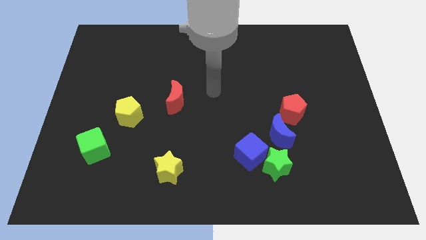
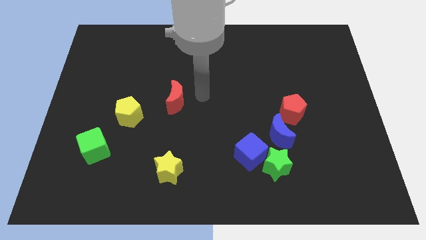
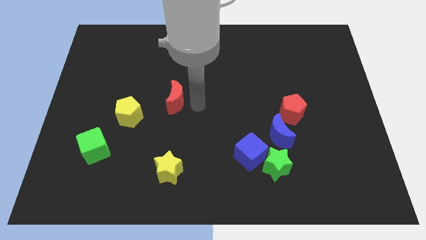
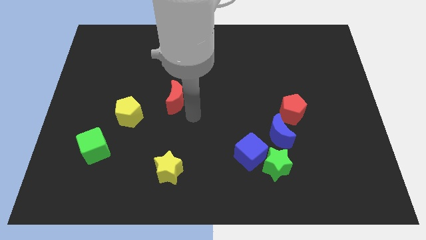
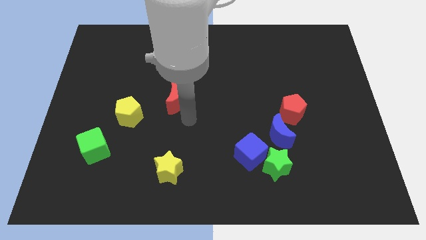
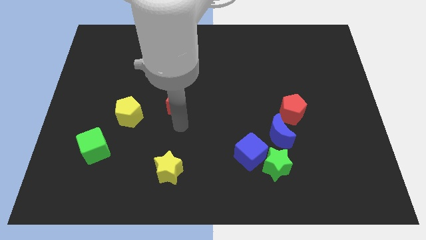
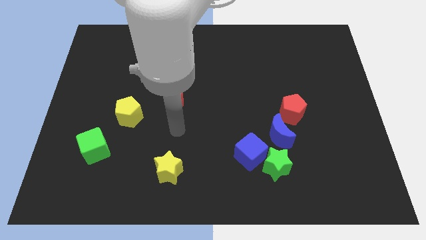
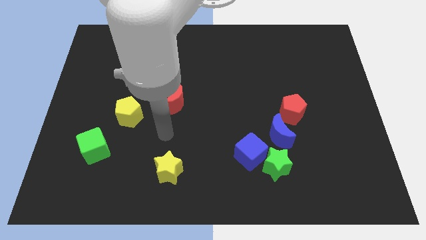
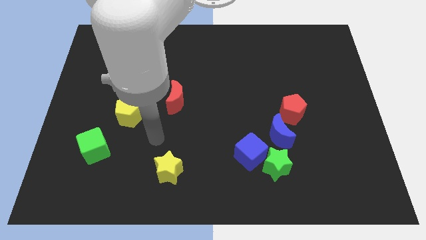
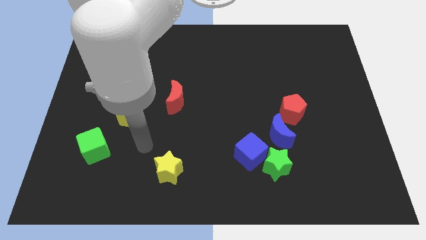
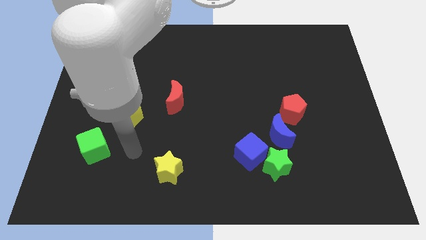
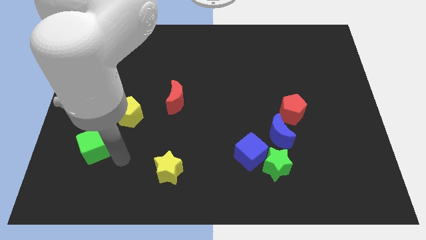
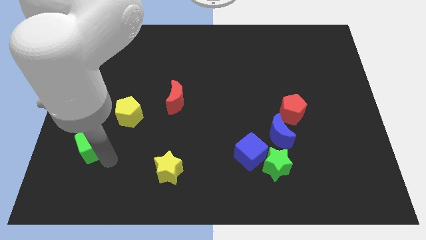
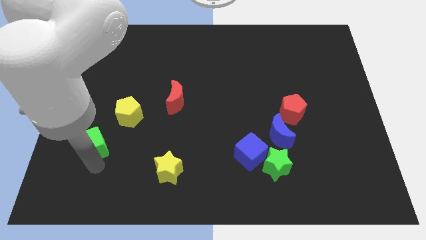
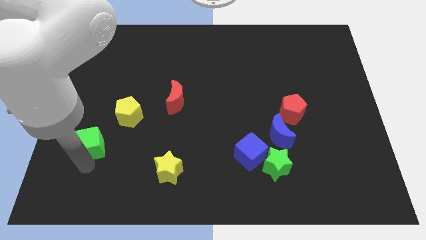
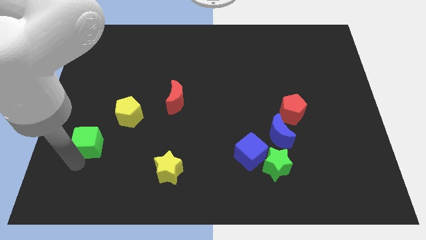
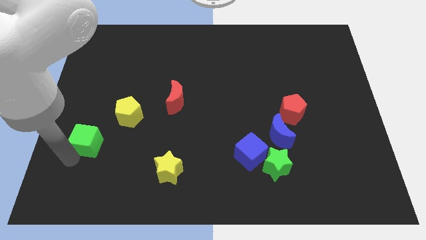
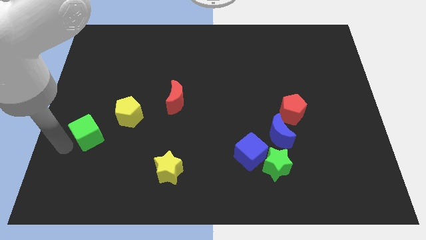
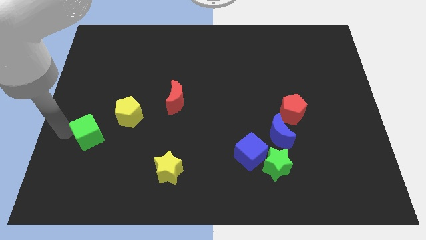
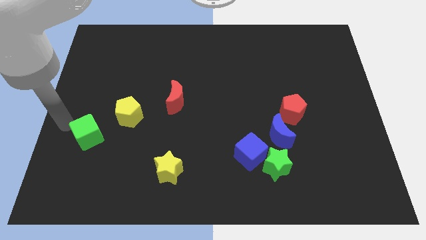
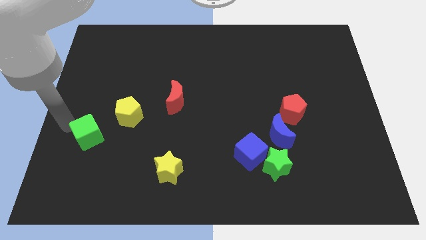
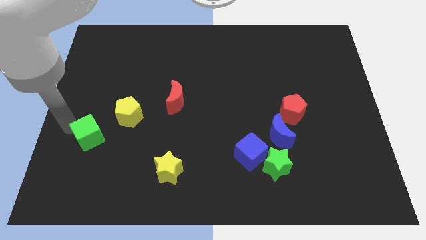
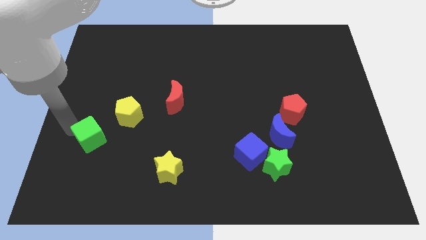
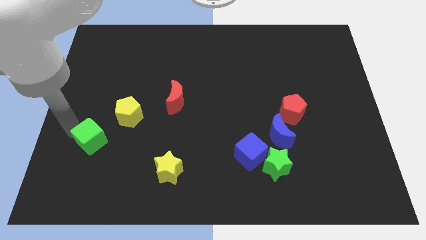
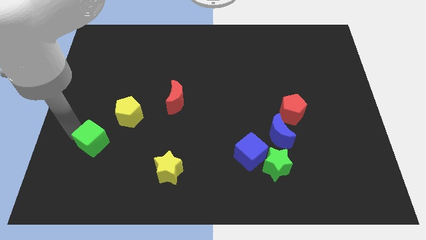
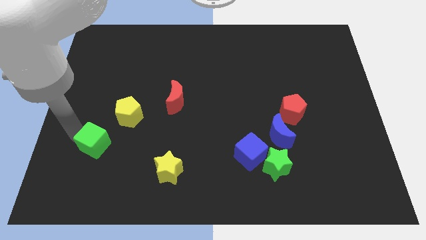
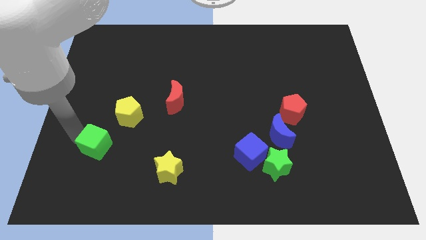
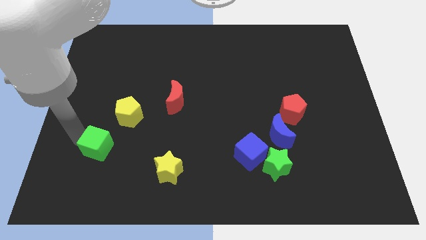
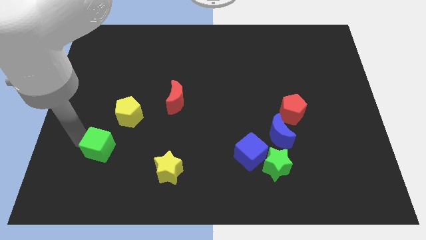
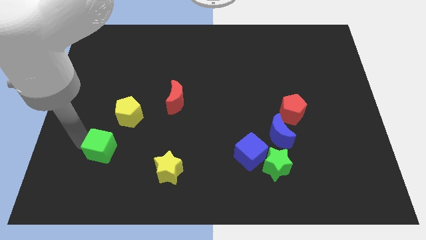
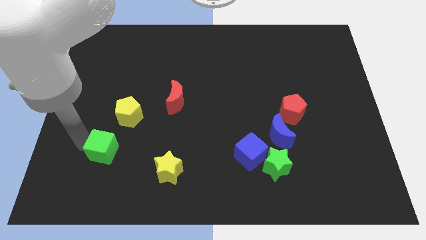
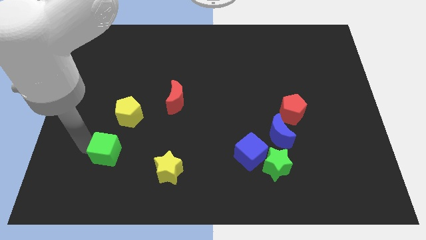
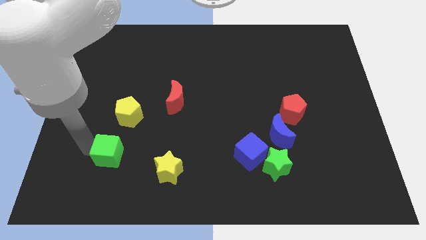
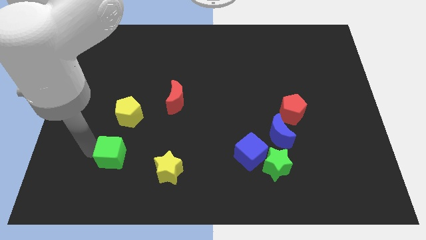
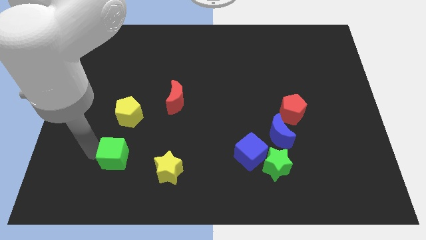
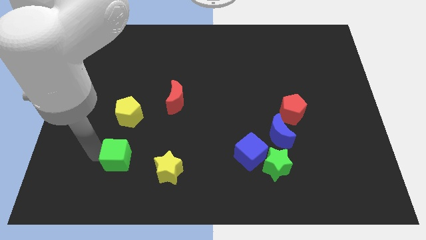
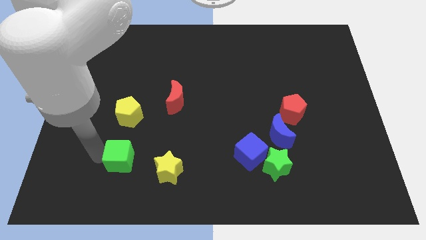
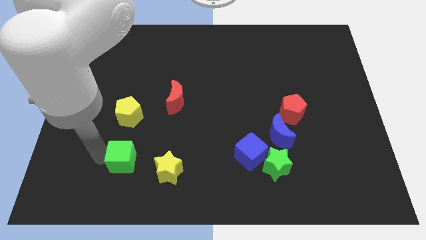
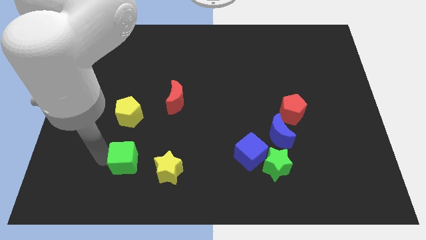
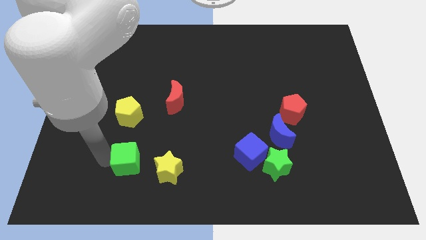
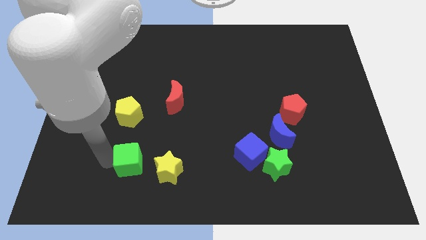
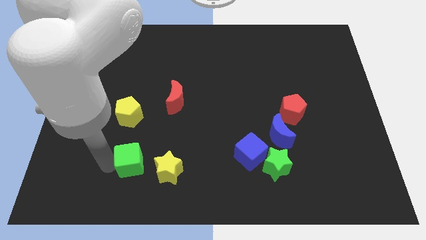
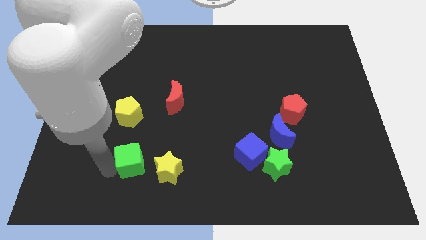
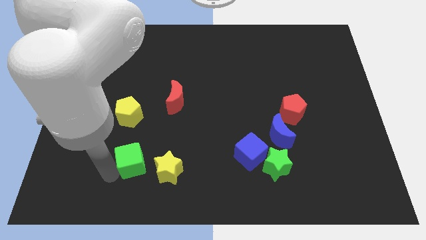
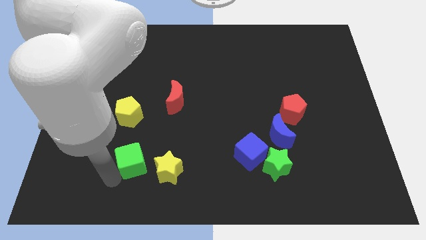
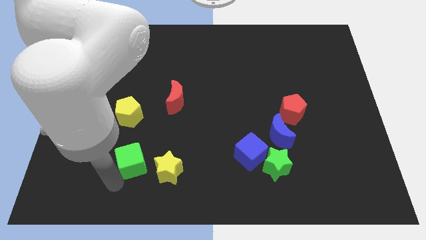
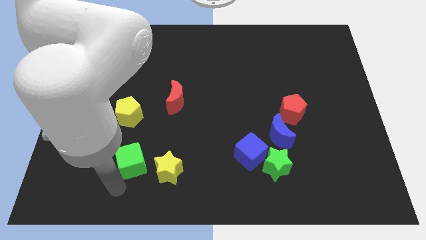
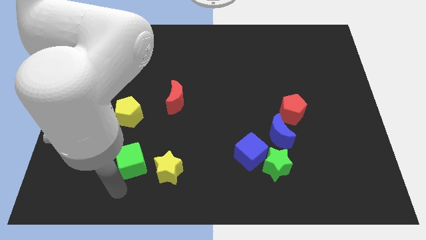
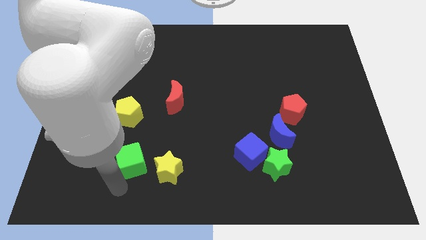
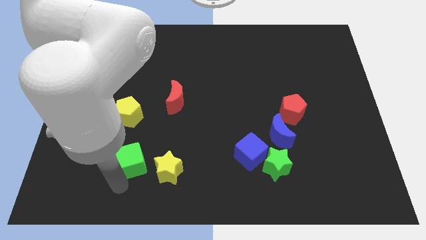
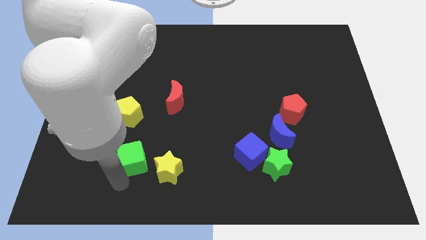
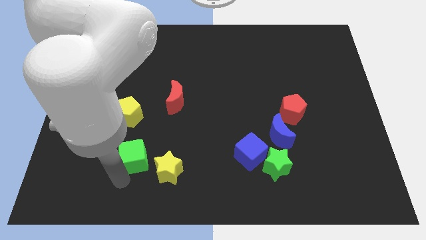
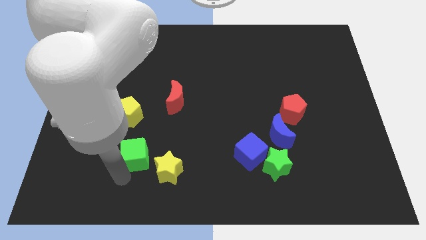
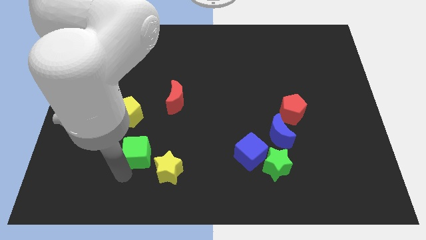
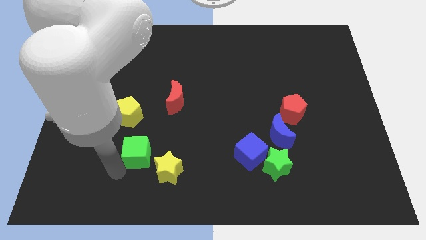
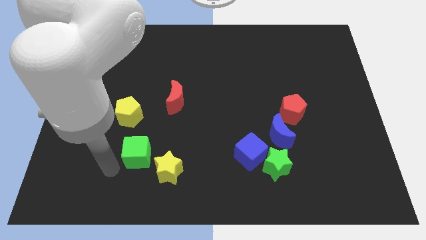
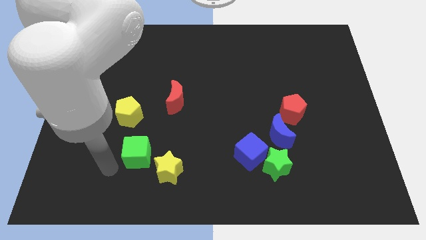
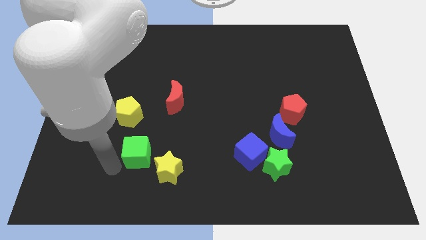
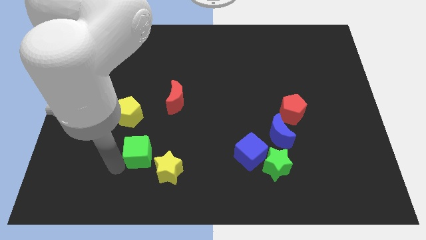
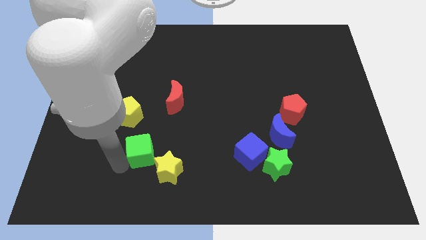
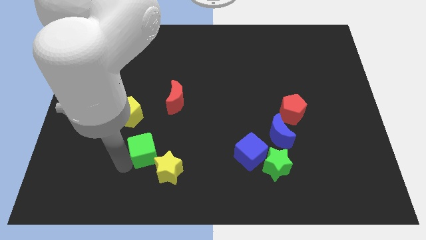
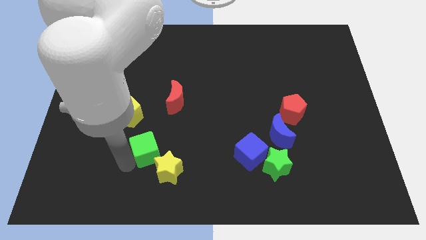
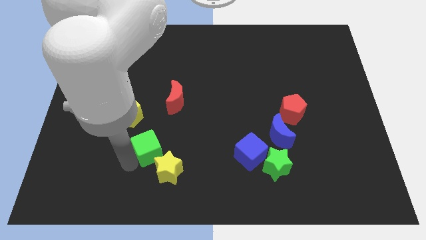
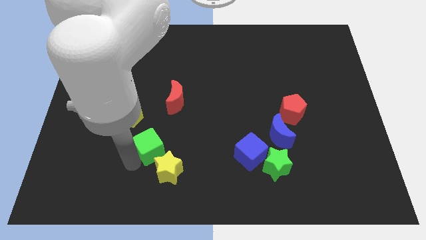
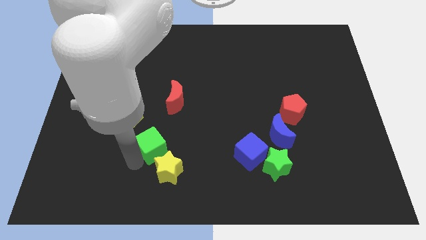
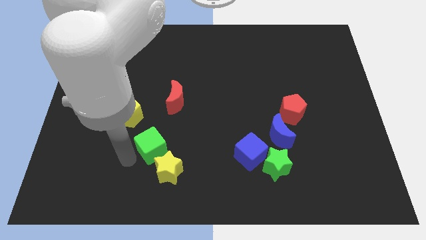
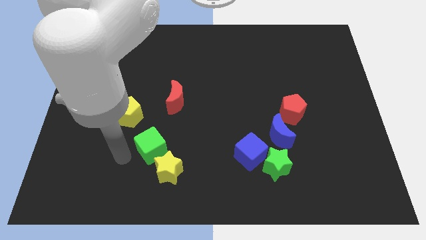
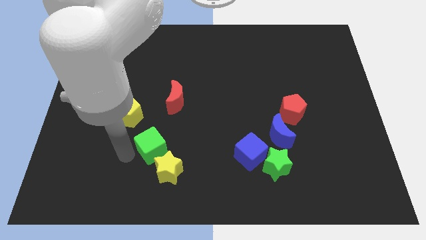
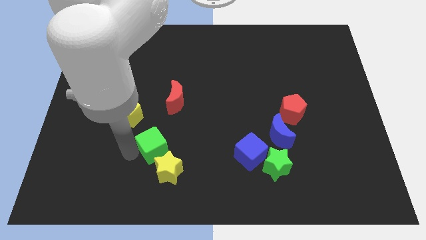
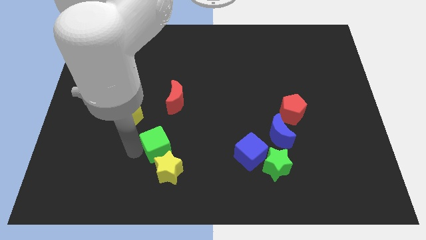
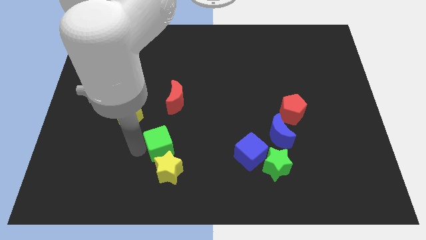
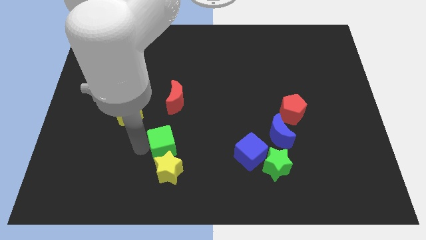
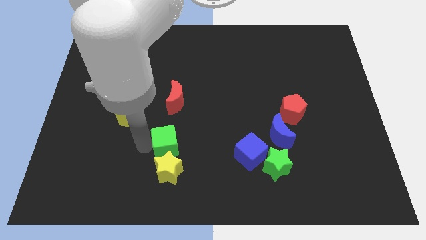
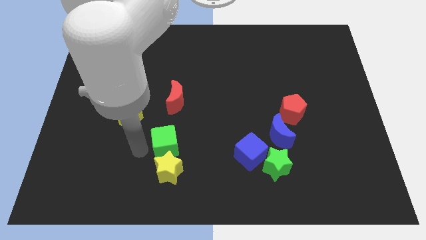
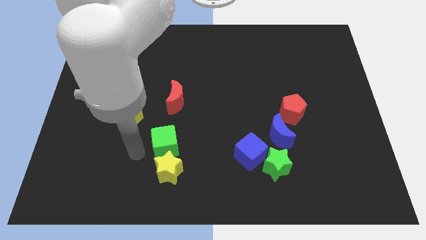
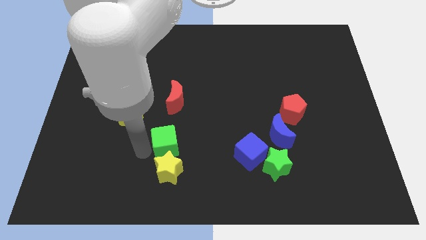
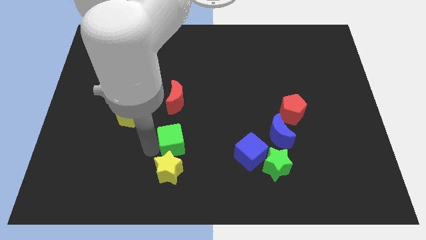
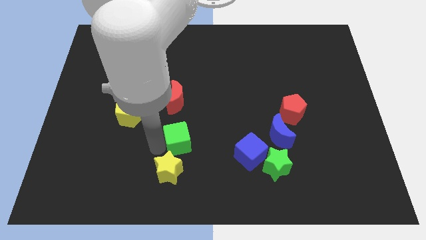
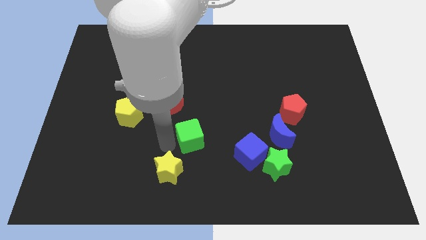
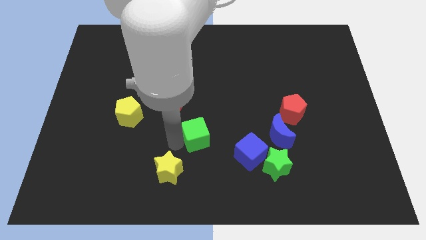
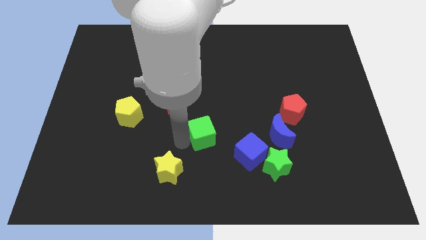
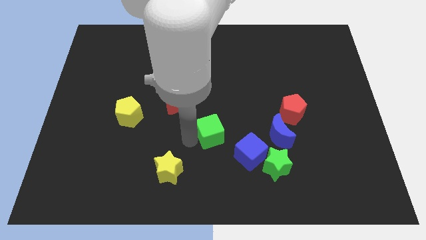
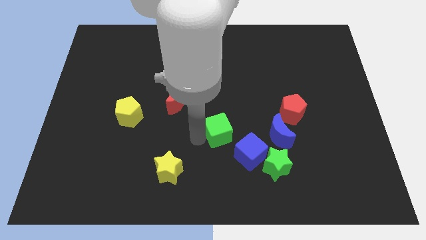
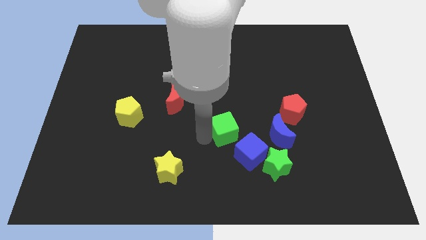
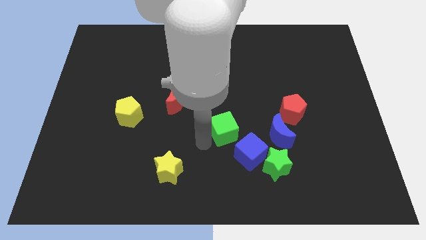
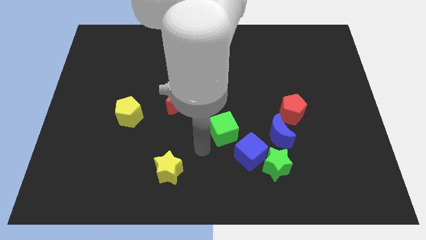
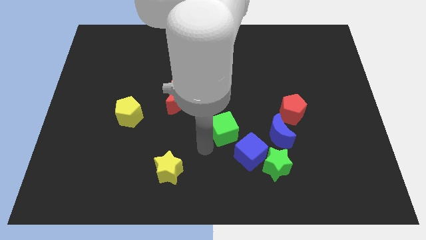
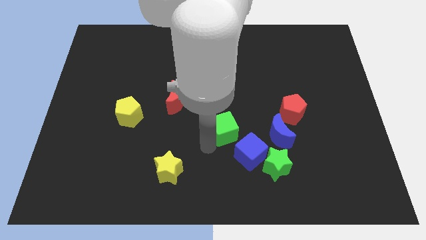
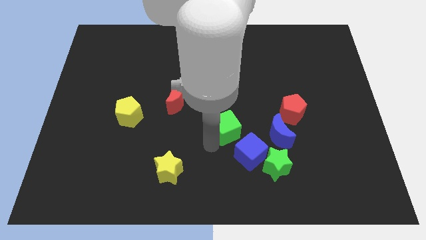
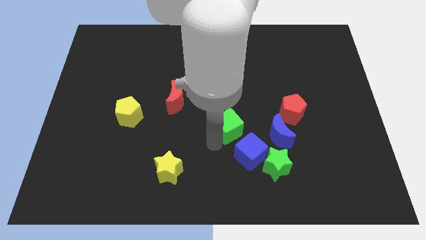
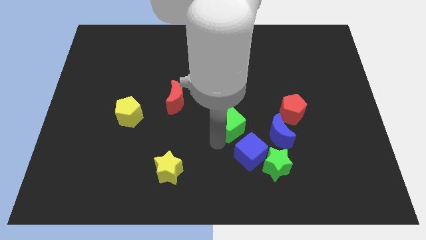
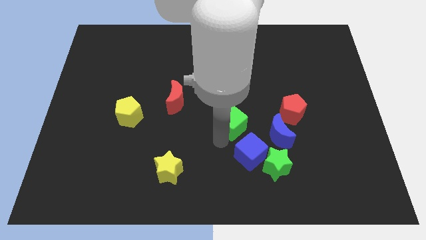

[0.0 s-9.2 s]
push the green cube just left of the red pentagon
